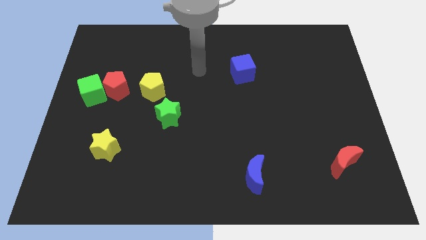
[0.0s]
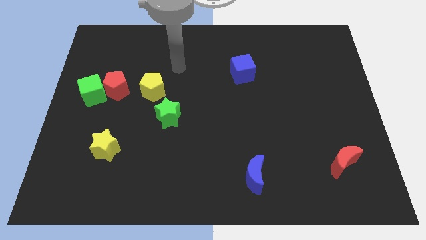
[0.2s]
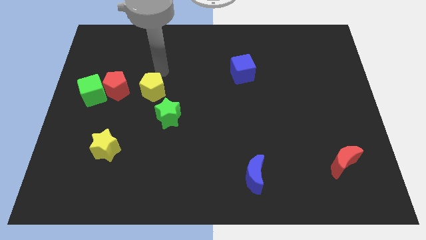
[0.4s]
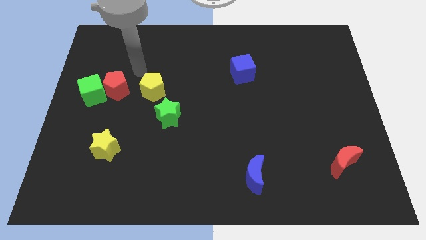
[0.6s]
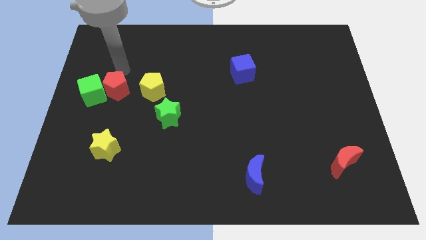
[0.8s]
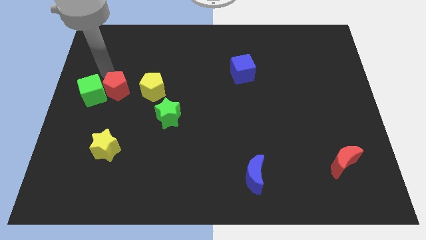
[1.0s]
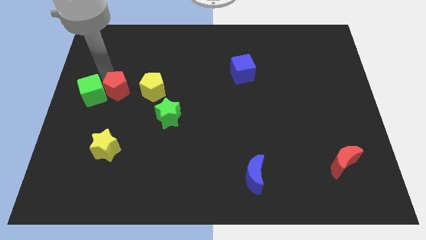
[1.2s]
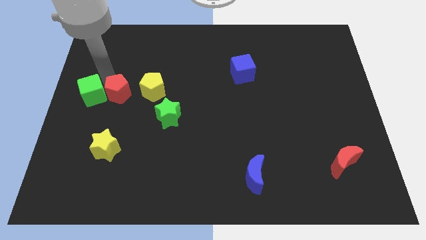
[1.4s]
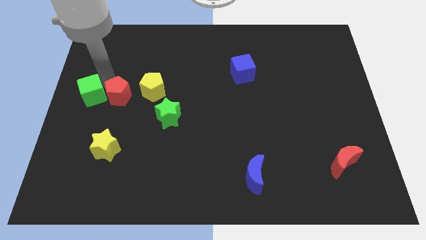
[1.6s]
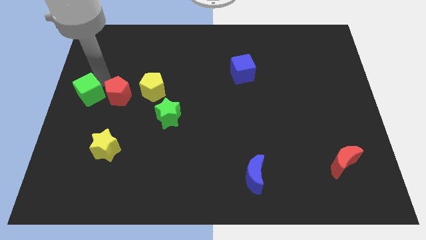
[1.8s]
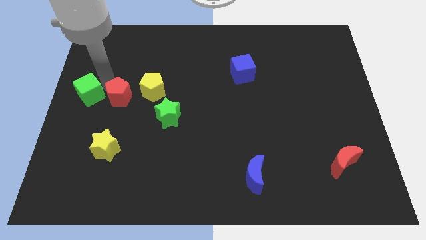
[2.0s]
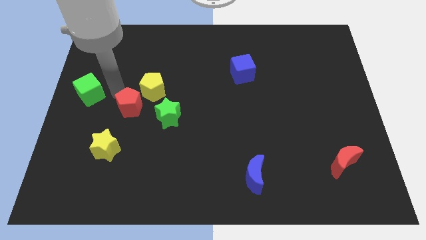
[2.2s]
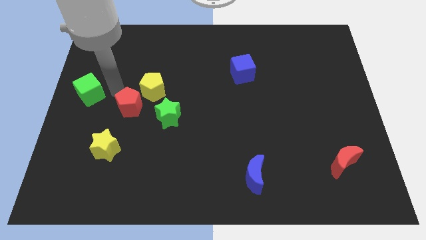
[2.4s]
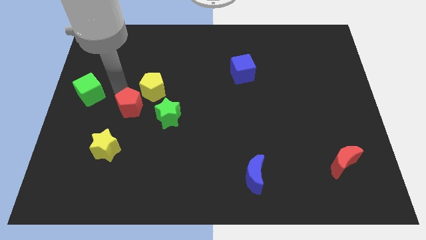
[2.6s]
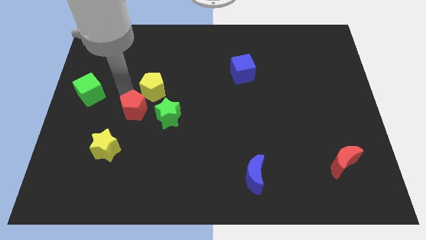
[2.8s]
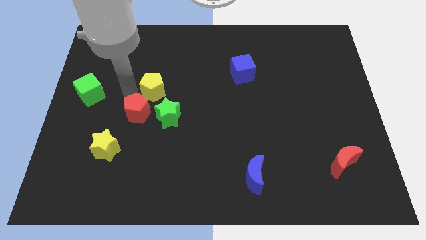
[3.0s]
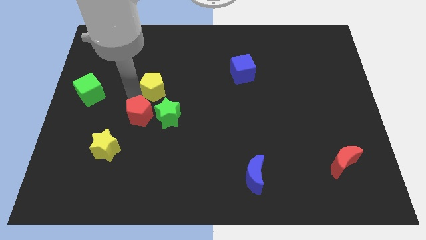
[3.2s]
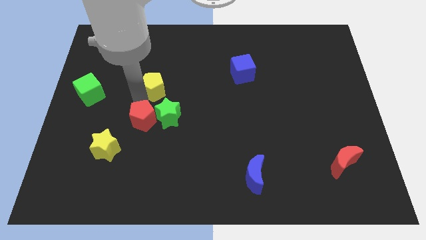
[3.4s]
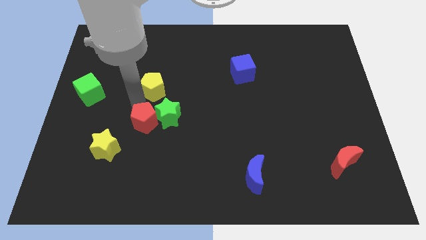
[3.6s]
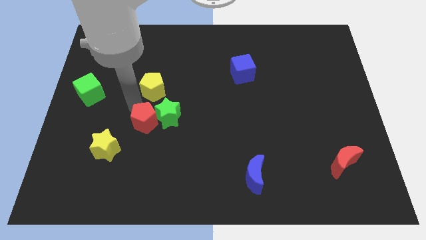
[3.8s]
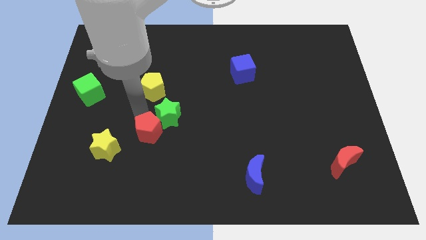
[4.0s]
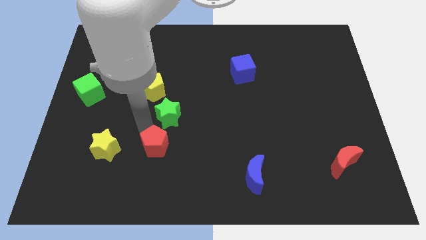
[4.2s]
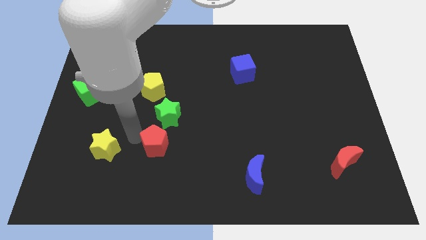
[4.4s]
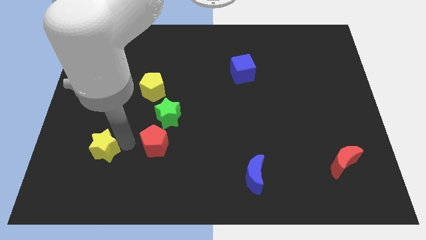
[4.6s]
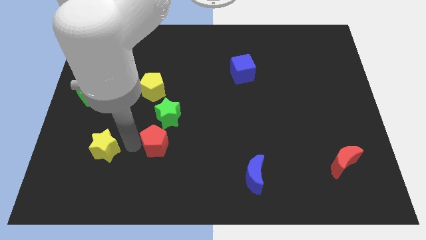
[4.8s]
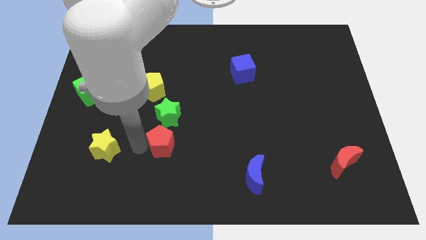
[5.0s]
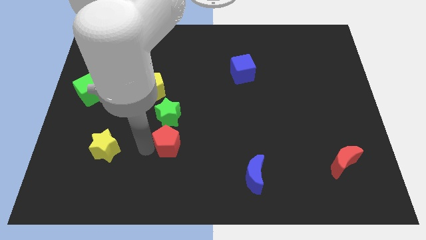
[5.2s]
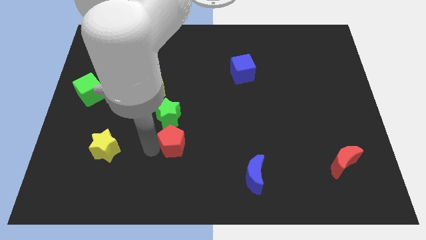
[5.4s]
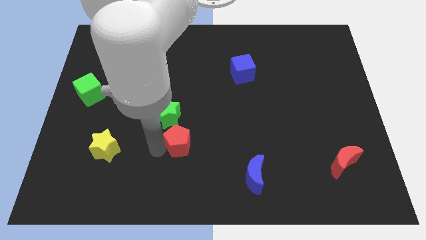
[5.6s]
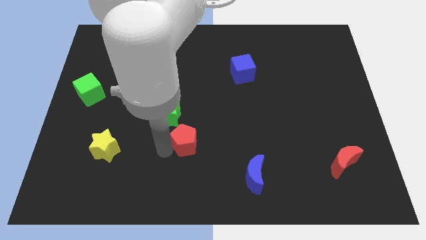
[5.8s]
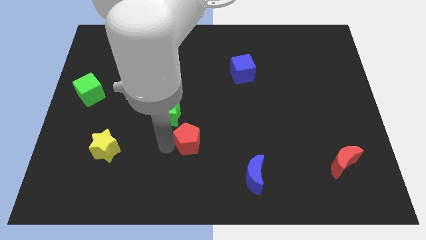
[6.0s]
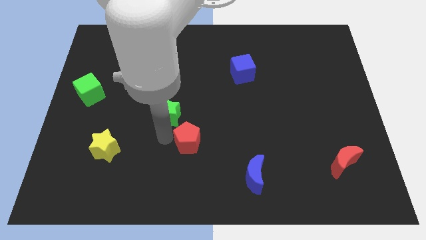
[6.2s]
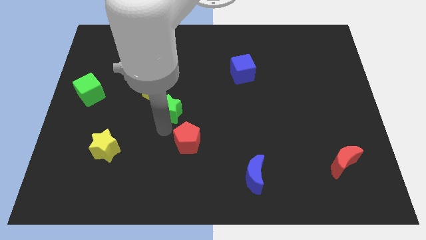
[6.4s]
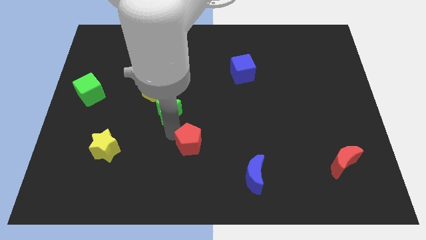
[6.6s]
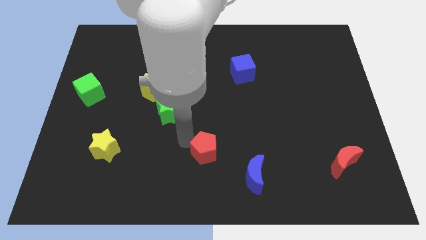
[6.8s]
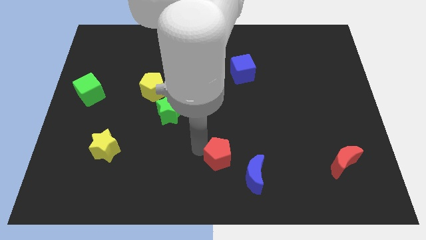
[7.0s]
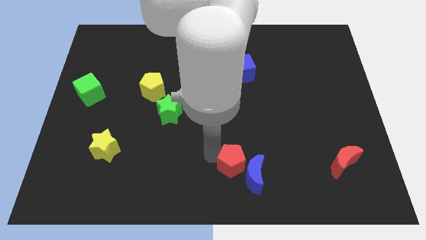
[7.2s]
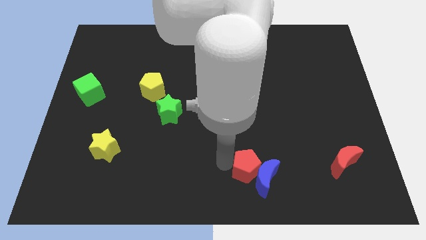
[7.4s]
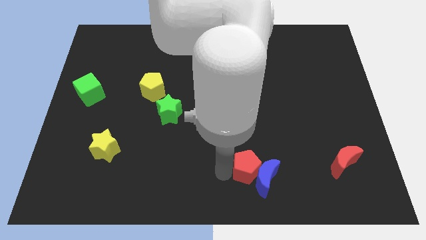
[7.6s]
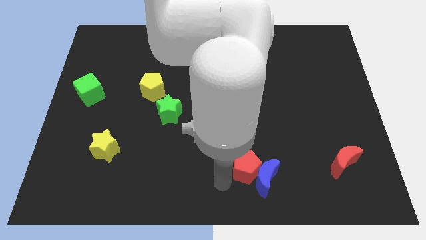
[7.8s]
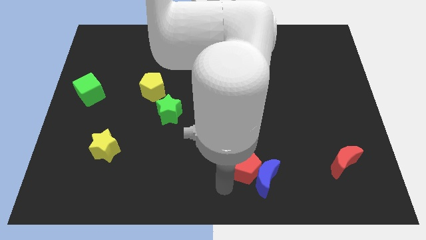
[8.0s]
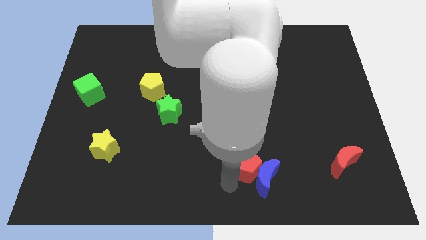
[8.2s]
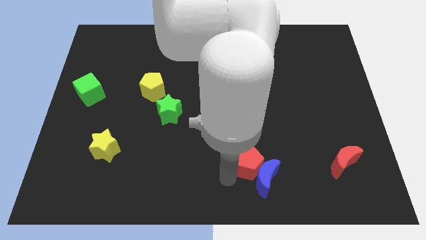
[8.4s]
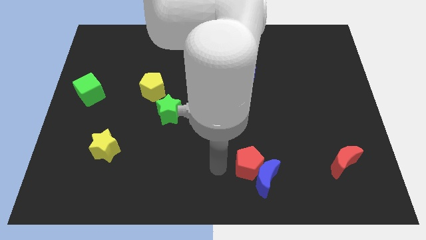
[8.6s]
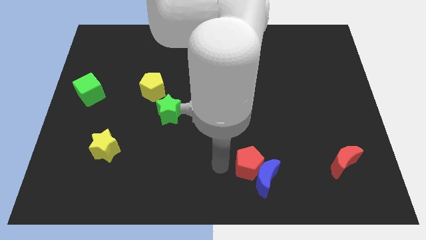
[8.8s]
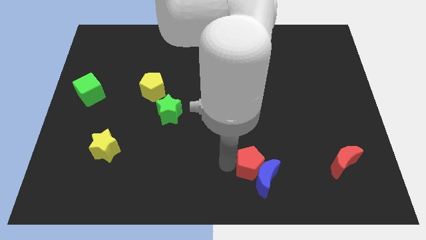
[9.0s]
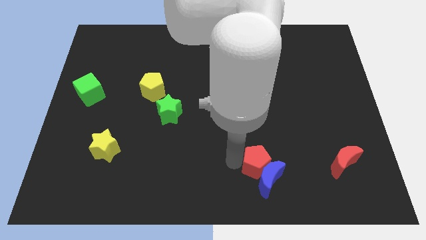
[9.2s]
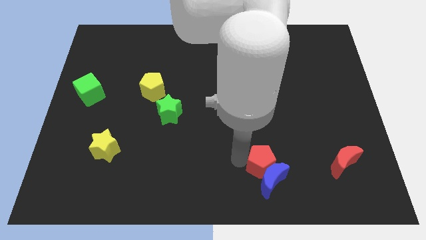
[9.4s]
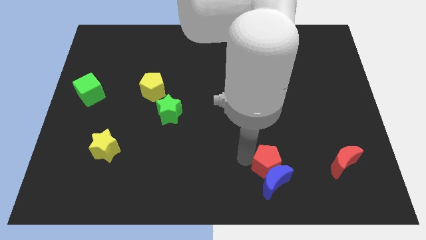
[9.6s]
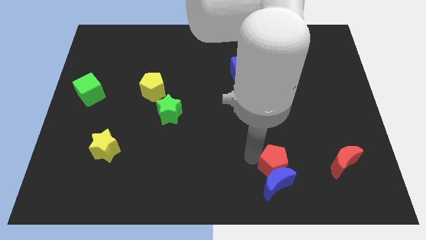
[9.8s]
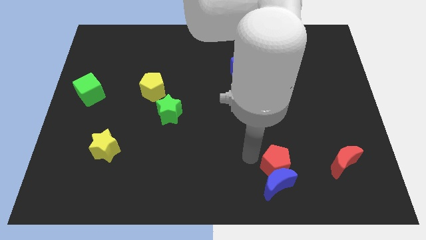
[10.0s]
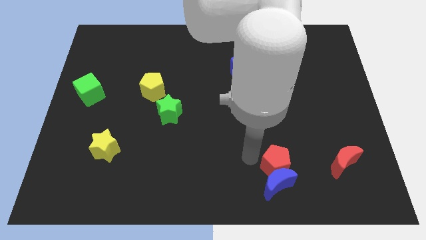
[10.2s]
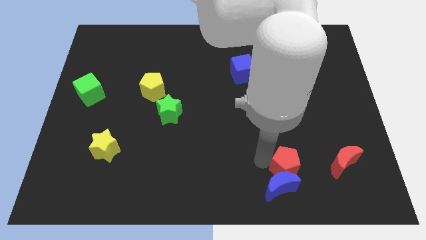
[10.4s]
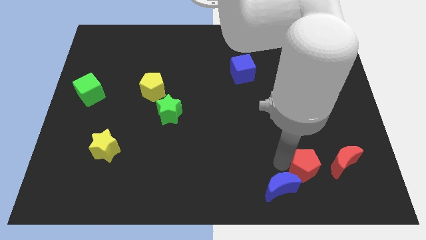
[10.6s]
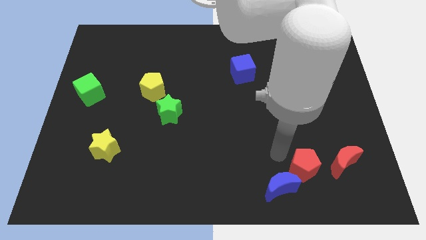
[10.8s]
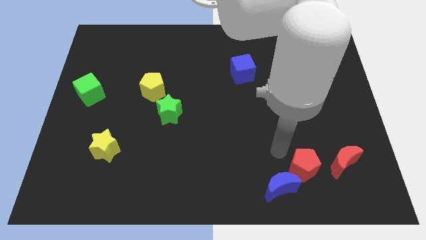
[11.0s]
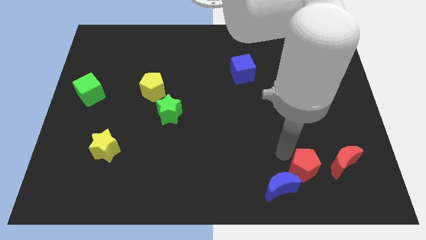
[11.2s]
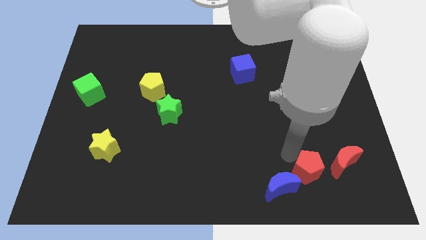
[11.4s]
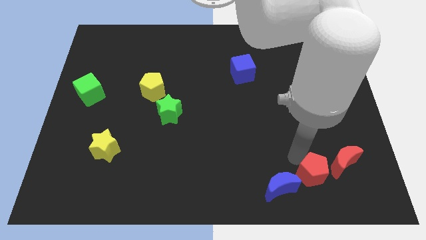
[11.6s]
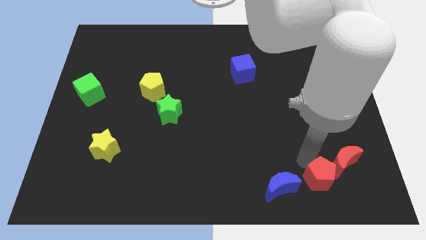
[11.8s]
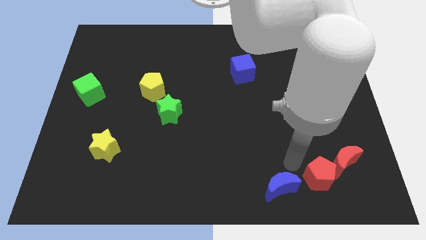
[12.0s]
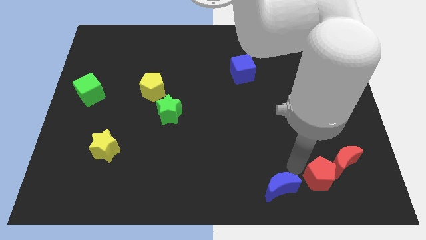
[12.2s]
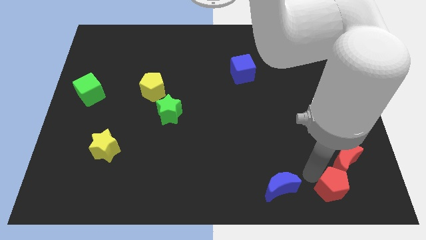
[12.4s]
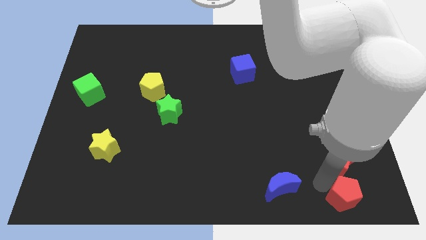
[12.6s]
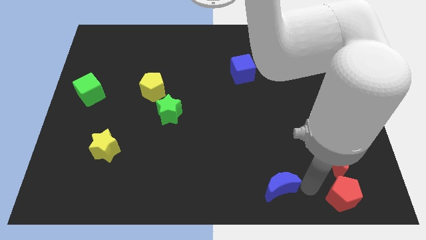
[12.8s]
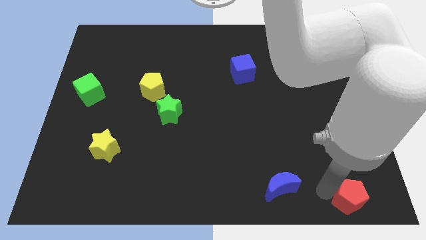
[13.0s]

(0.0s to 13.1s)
put the red pentagon to the bottom right of the board
